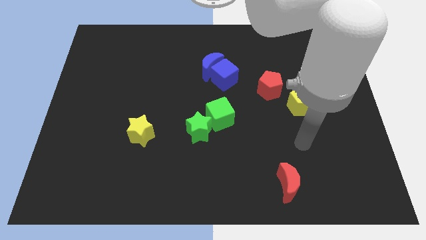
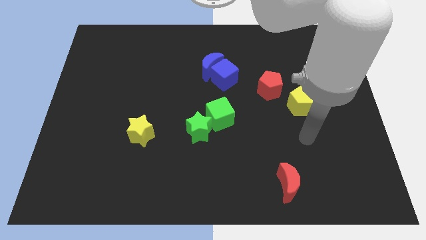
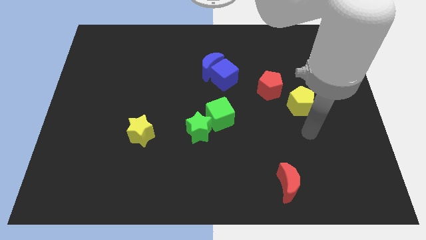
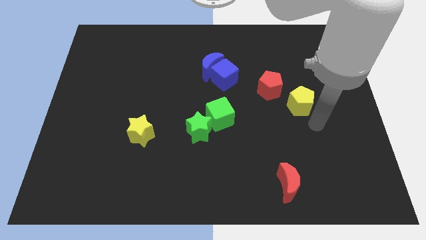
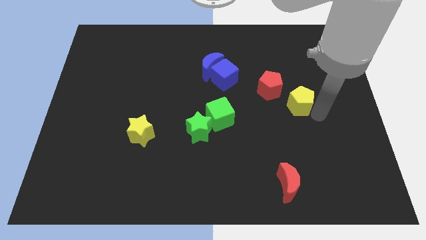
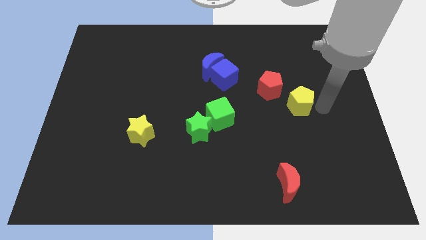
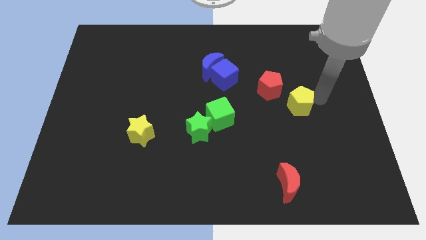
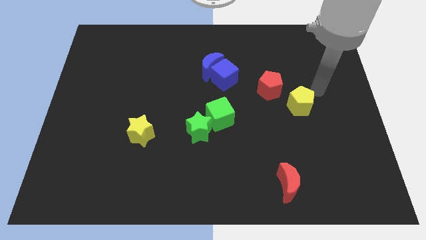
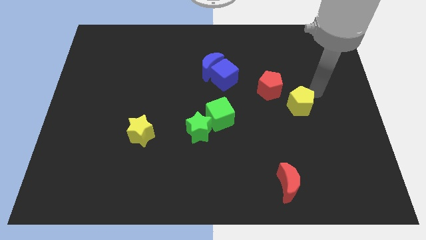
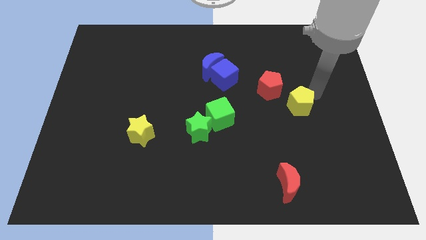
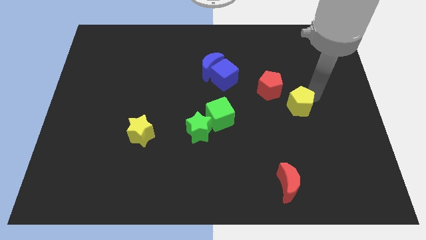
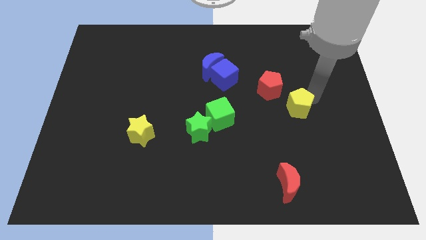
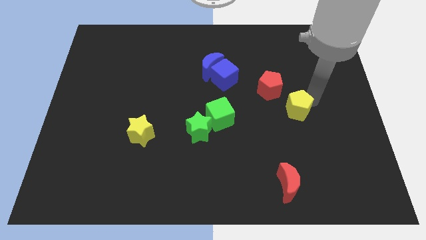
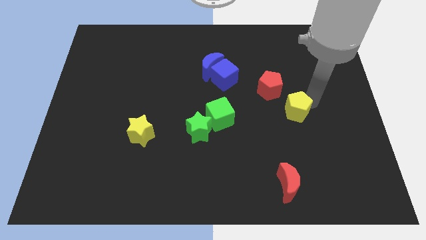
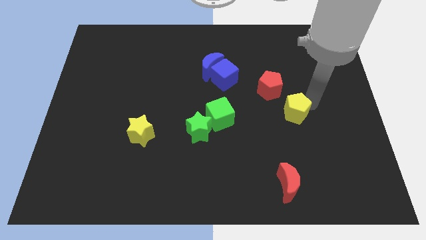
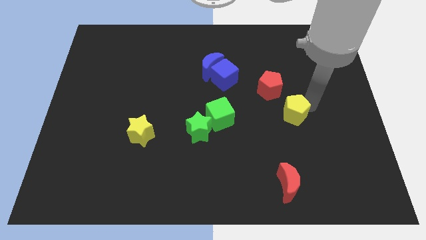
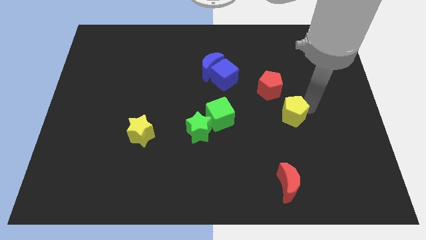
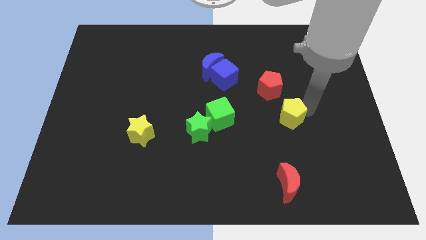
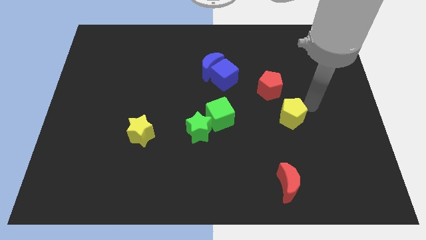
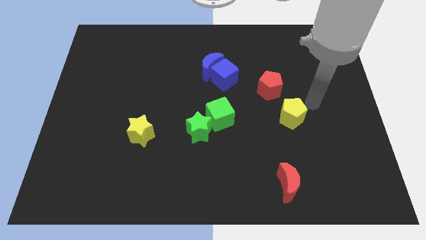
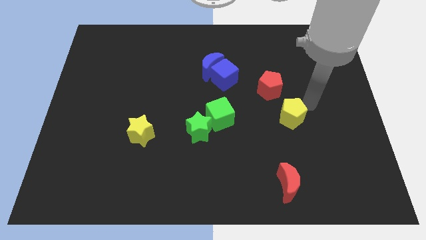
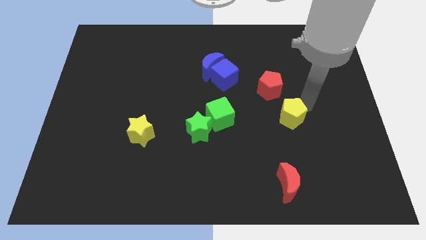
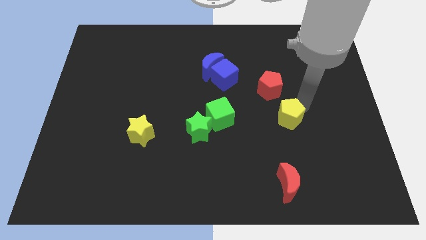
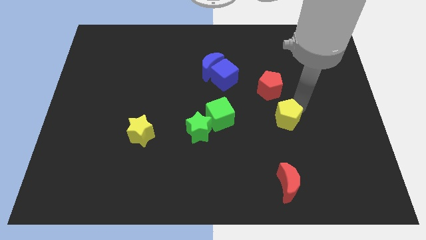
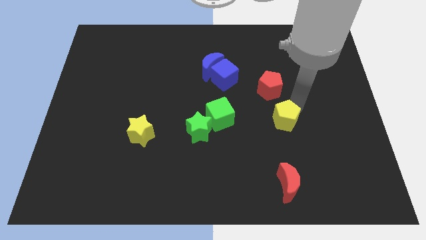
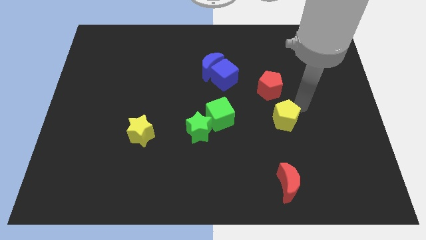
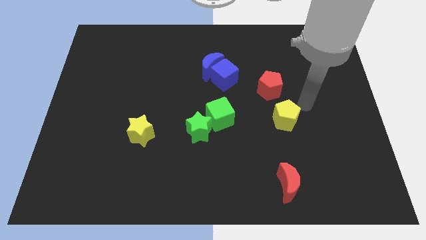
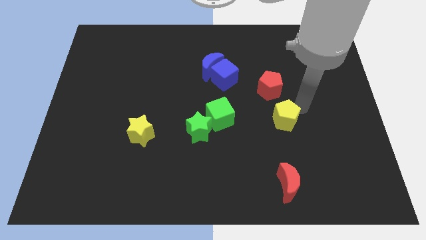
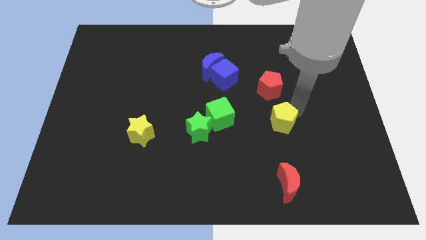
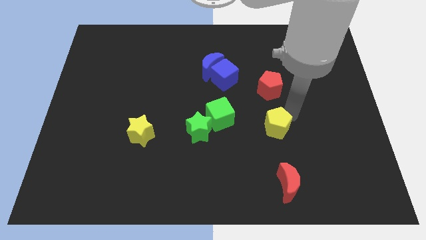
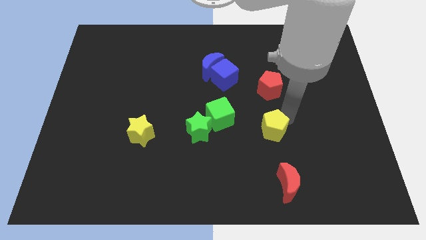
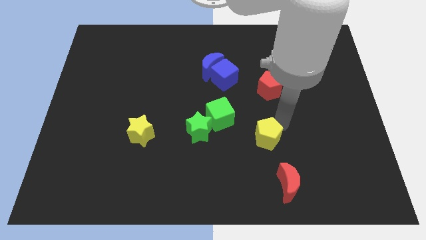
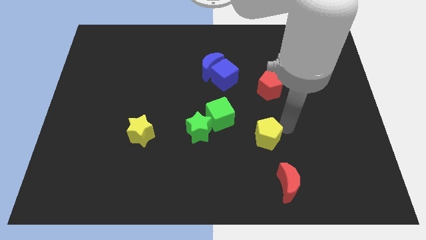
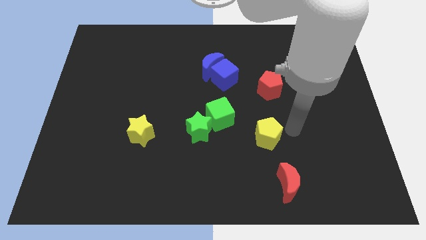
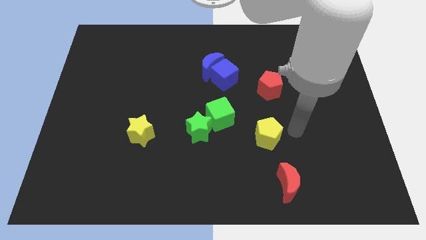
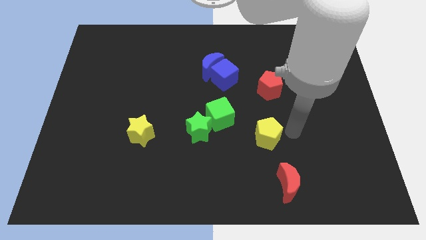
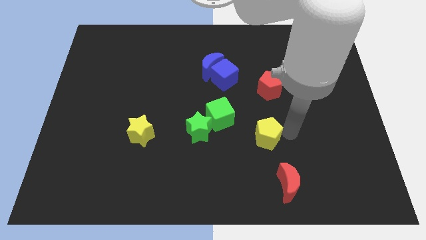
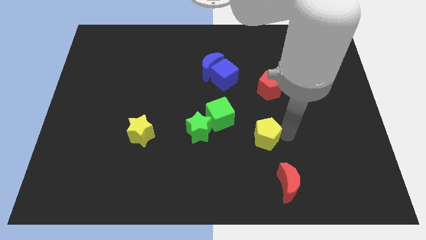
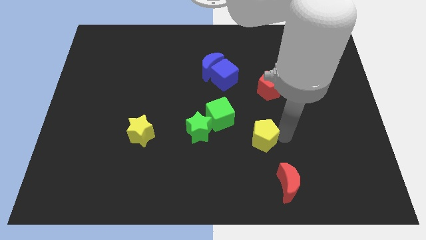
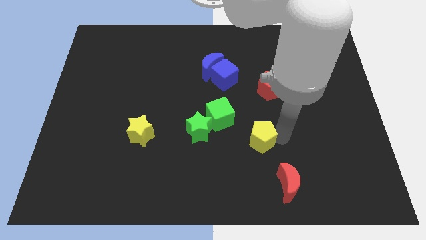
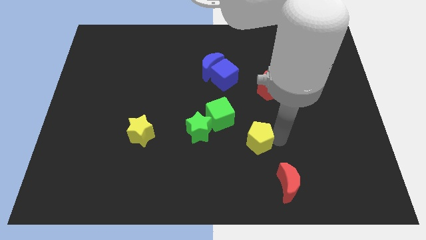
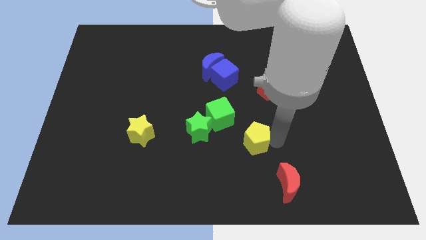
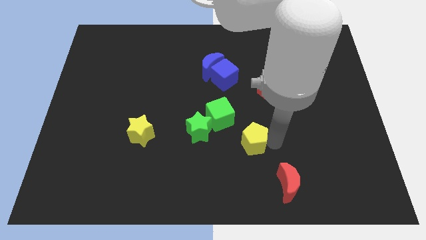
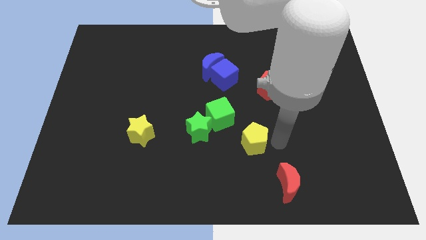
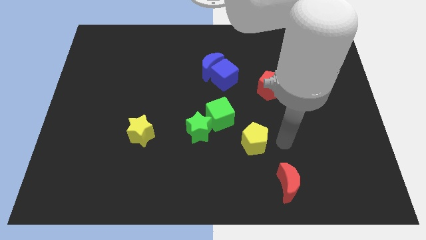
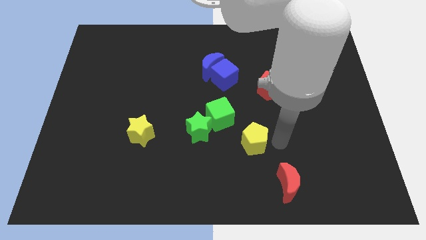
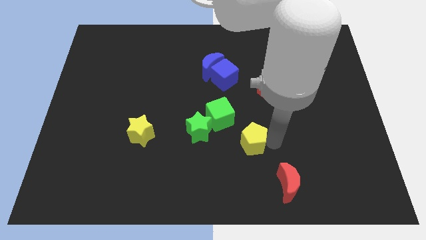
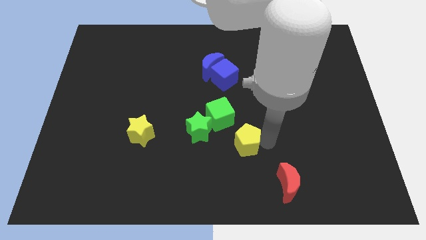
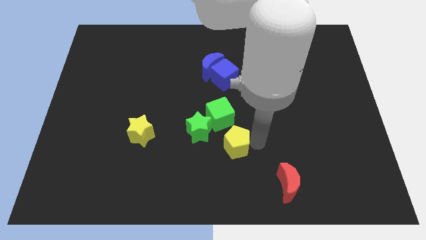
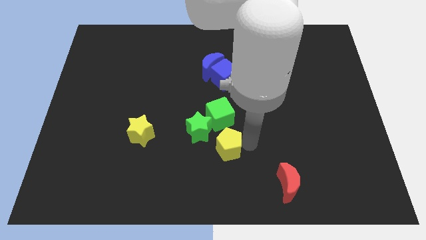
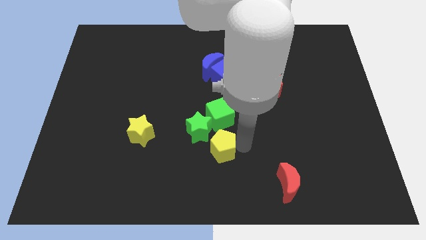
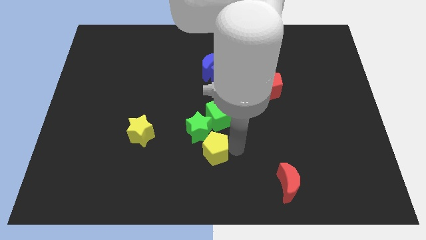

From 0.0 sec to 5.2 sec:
put the yellow pentagon to the green star

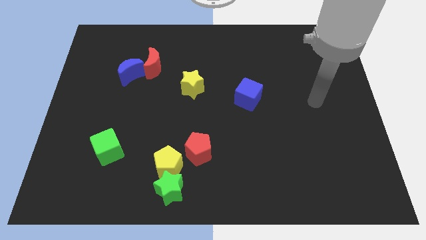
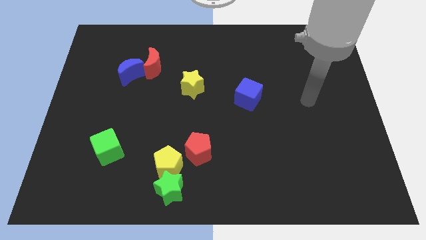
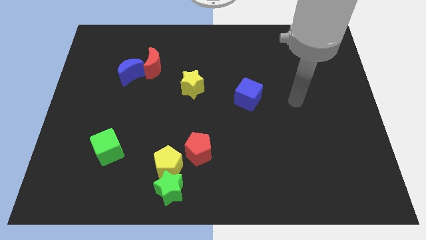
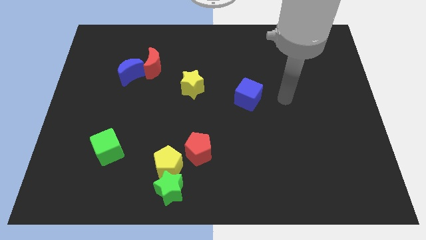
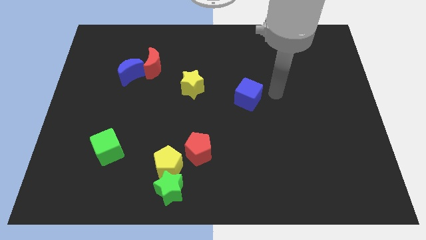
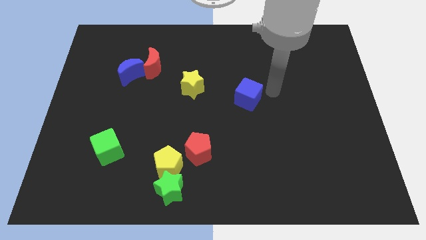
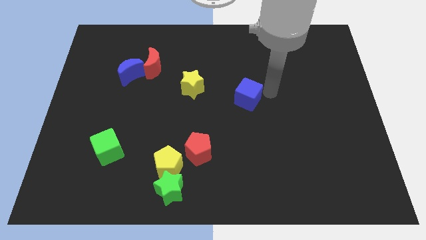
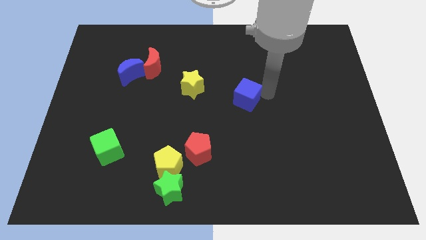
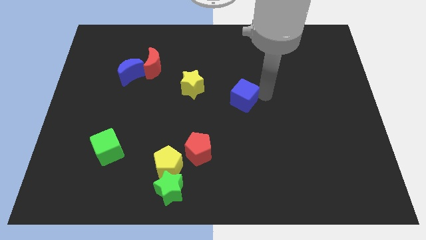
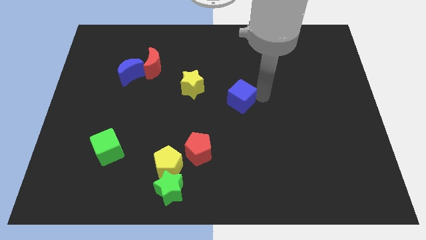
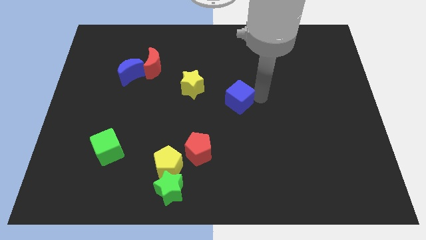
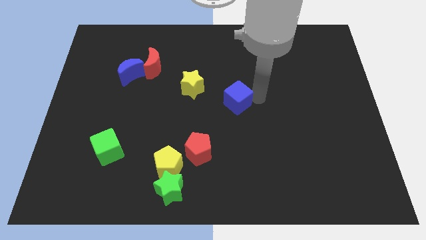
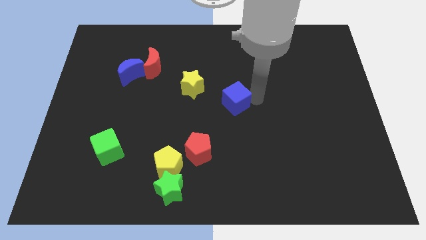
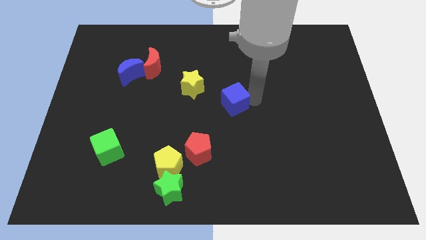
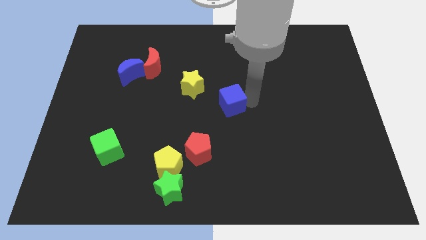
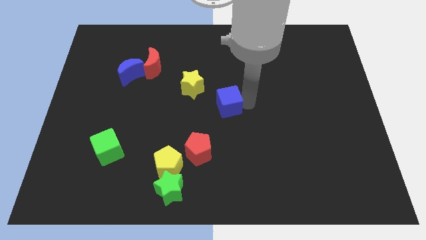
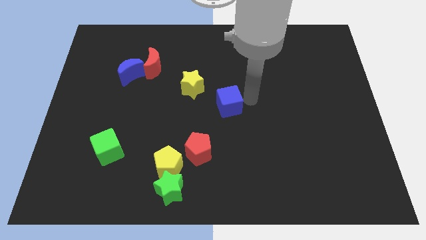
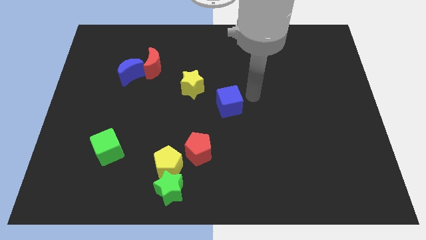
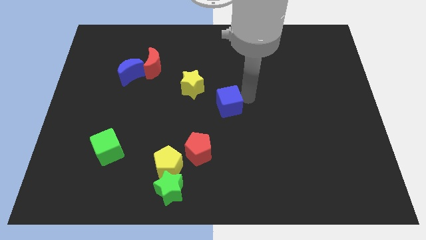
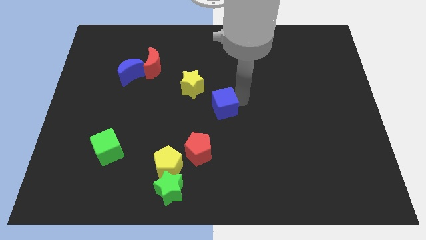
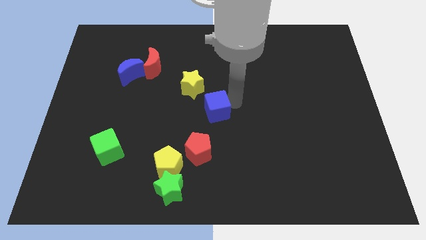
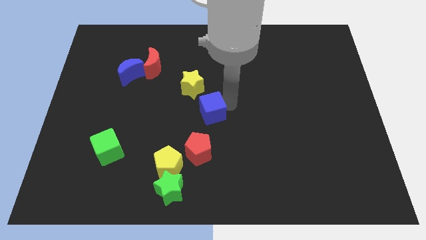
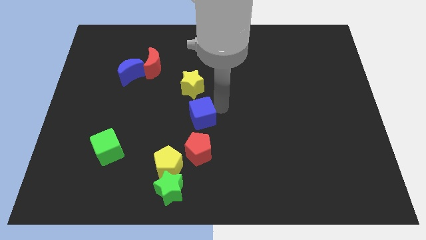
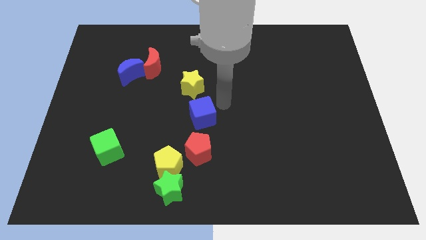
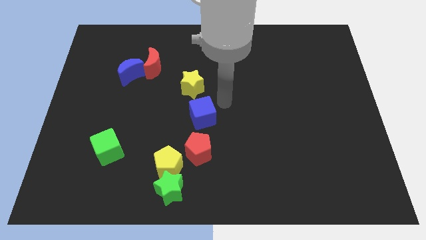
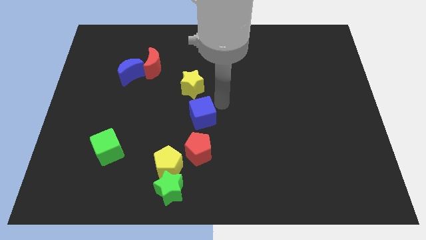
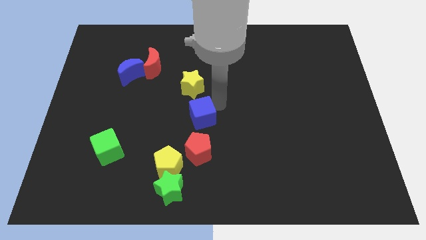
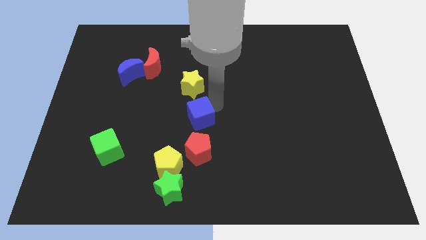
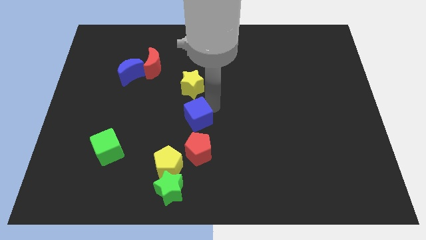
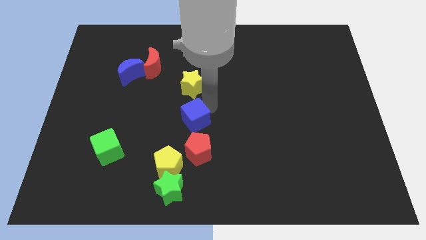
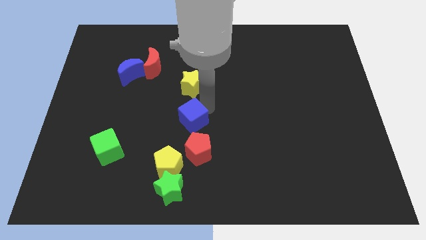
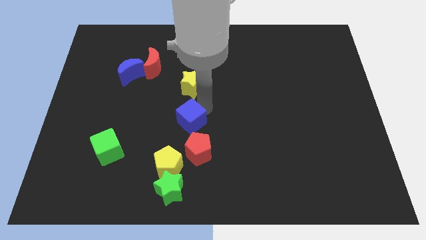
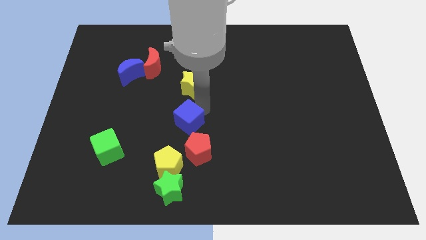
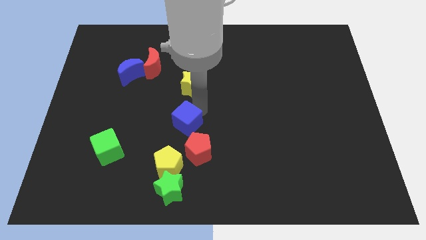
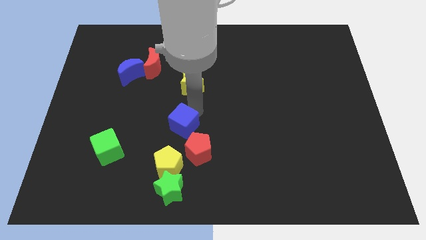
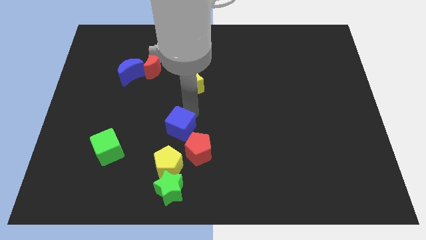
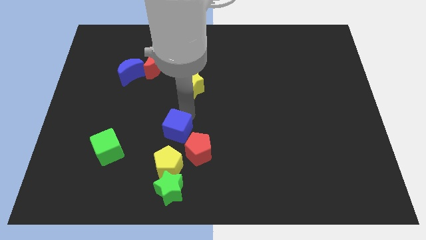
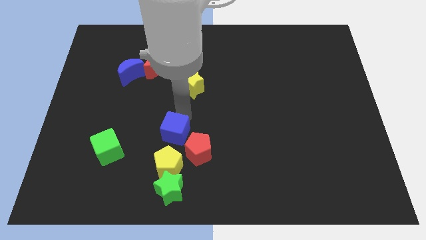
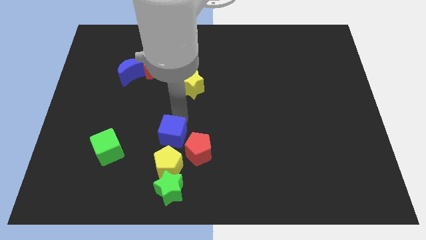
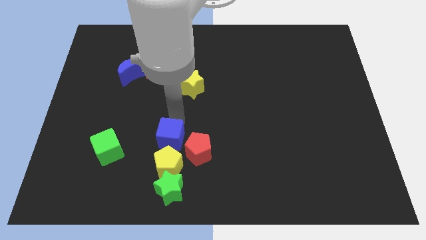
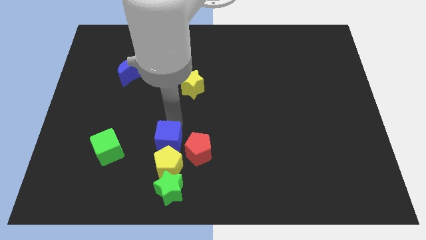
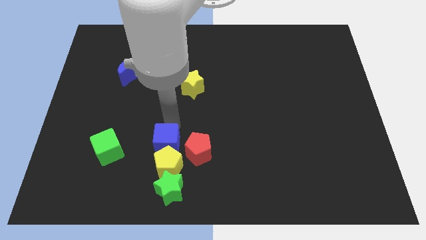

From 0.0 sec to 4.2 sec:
put the blue cube to the yellow pentagon
